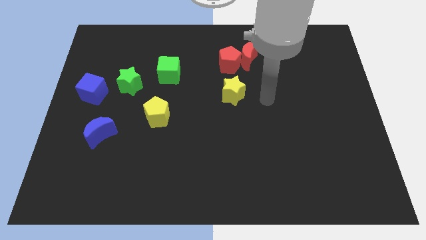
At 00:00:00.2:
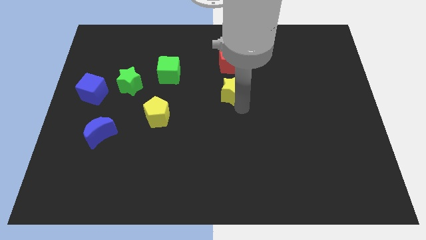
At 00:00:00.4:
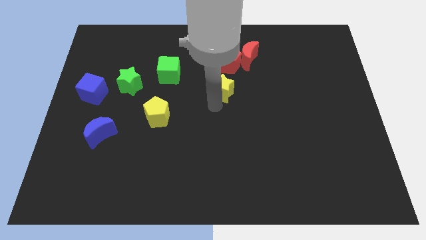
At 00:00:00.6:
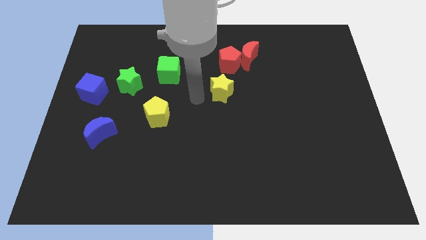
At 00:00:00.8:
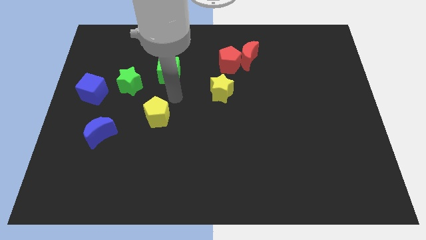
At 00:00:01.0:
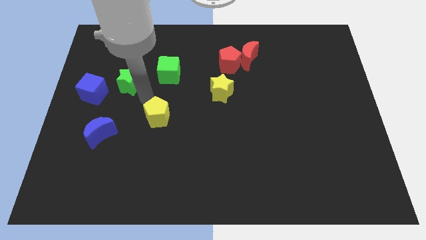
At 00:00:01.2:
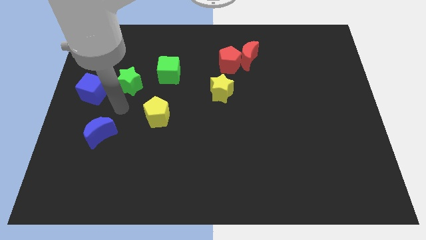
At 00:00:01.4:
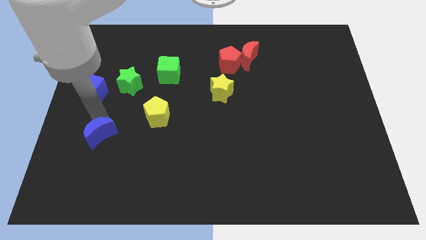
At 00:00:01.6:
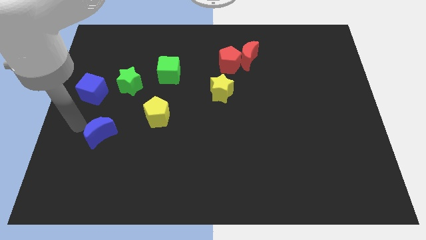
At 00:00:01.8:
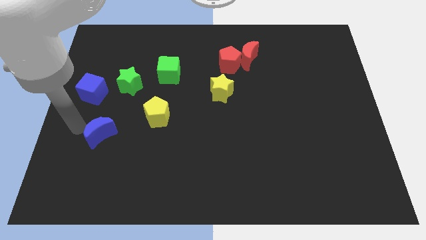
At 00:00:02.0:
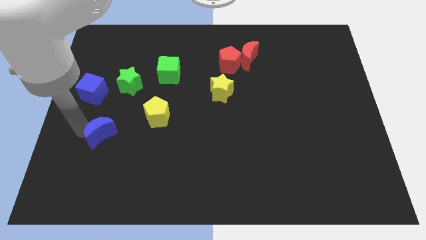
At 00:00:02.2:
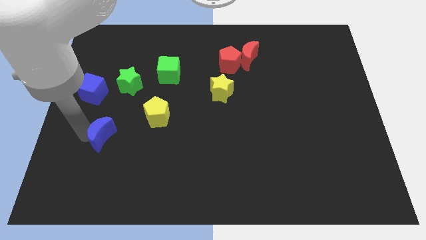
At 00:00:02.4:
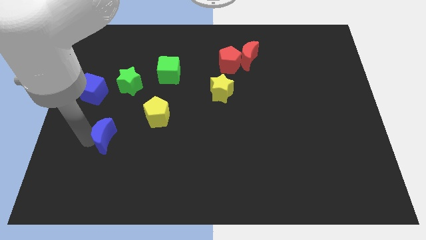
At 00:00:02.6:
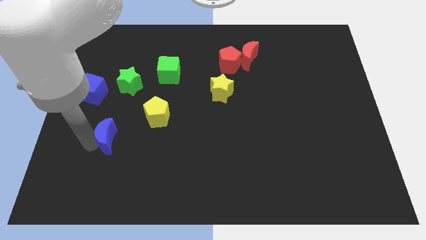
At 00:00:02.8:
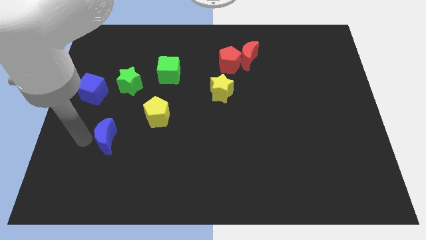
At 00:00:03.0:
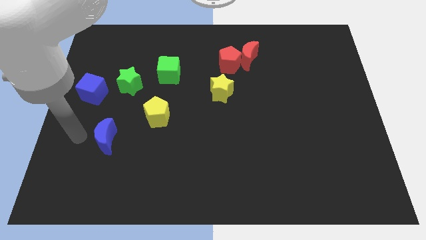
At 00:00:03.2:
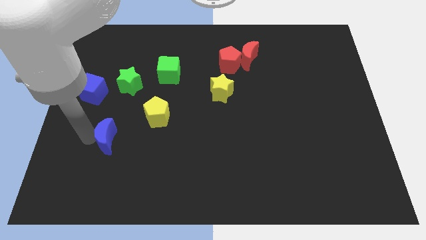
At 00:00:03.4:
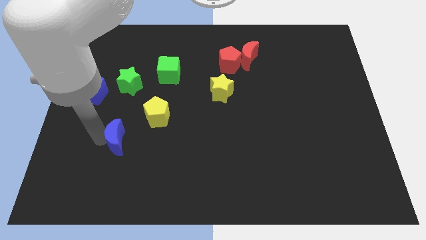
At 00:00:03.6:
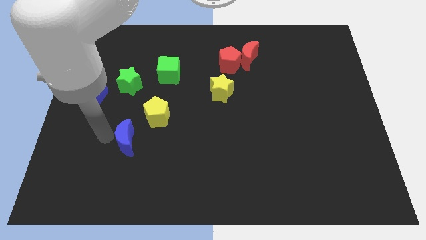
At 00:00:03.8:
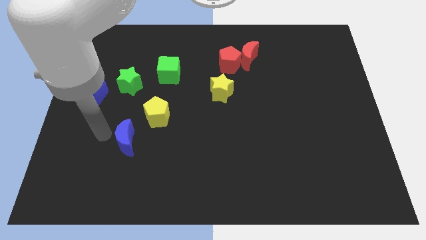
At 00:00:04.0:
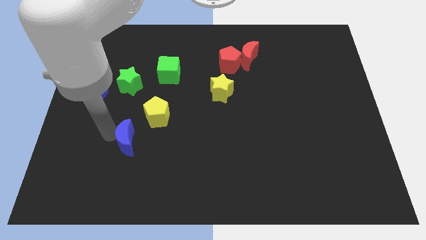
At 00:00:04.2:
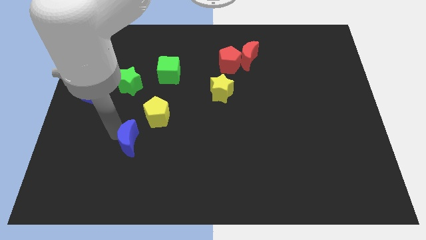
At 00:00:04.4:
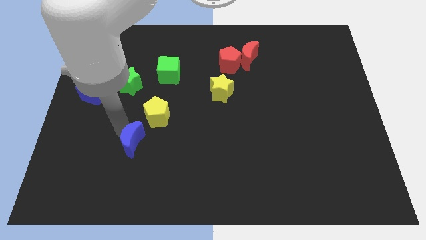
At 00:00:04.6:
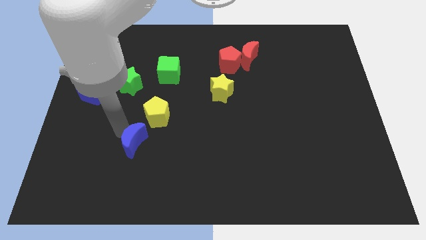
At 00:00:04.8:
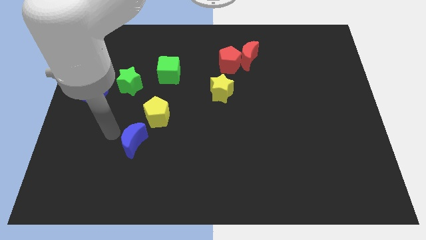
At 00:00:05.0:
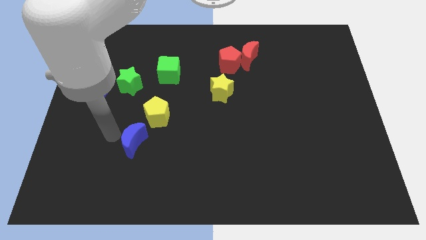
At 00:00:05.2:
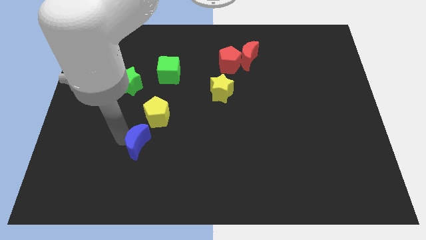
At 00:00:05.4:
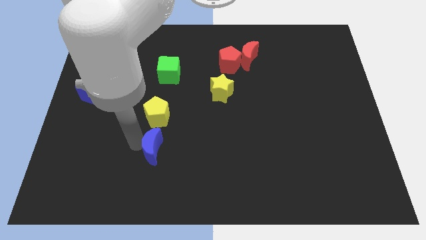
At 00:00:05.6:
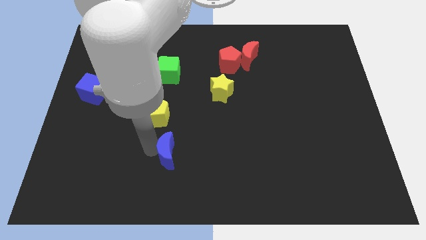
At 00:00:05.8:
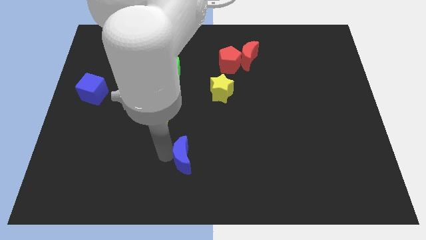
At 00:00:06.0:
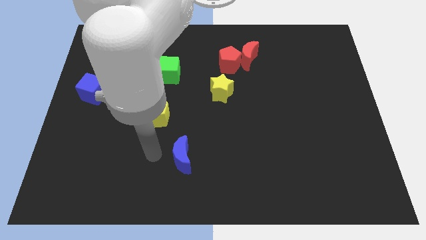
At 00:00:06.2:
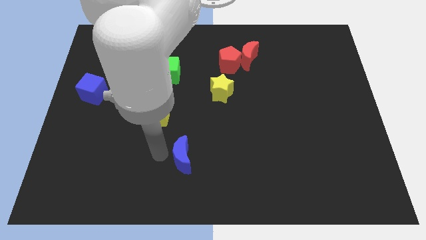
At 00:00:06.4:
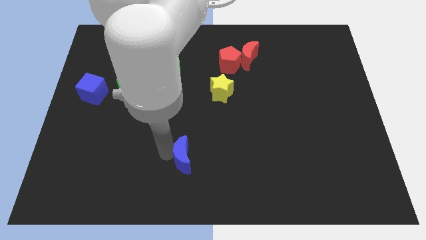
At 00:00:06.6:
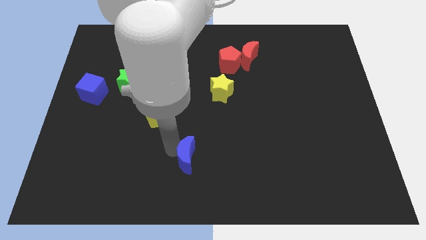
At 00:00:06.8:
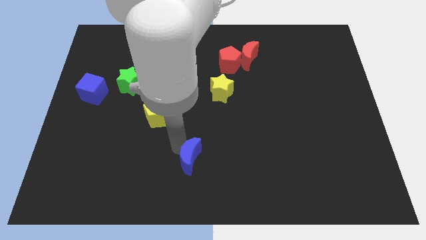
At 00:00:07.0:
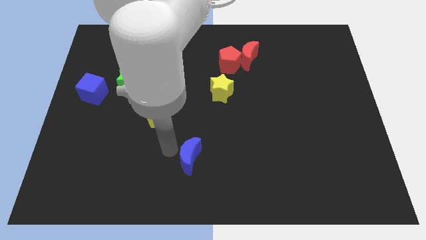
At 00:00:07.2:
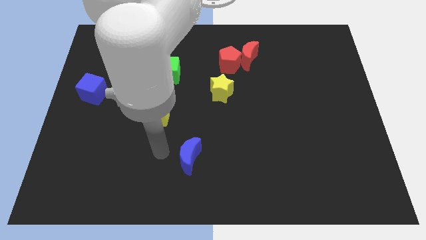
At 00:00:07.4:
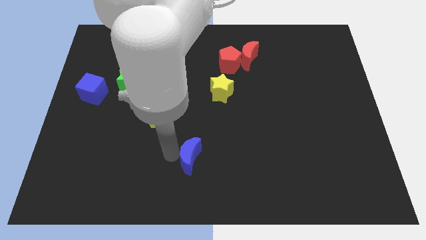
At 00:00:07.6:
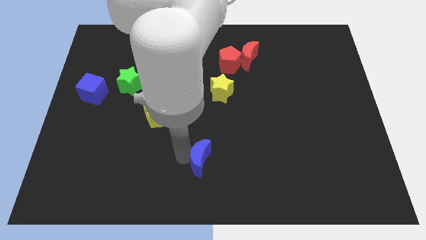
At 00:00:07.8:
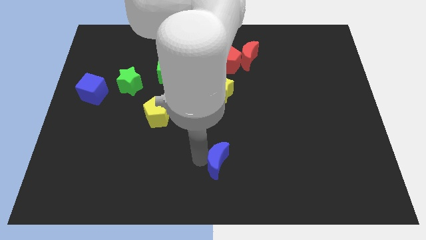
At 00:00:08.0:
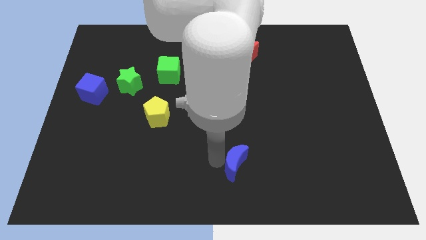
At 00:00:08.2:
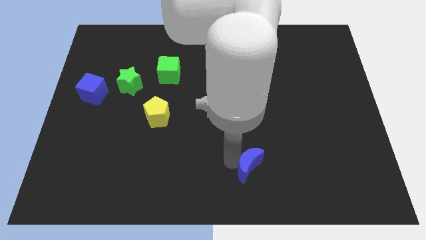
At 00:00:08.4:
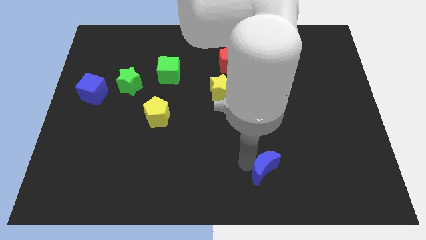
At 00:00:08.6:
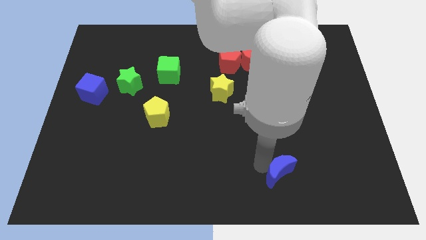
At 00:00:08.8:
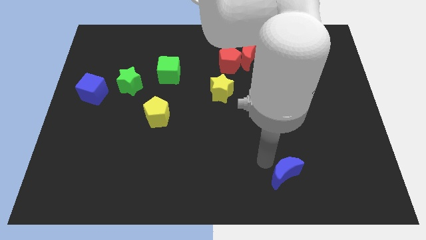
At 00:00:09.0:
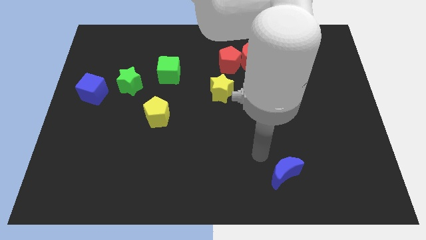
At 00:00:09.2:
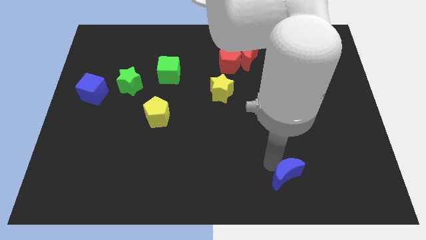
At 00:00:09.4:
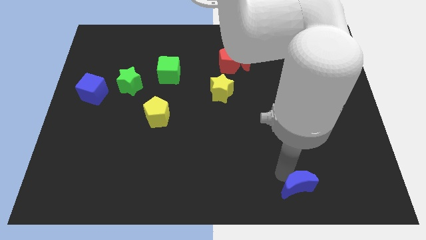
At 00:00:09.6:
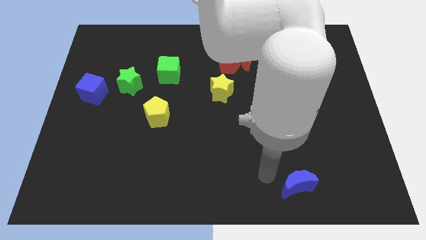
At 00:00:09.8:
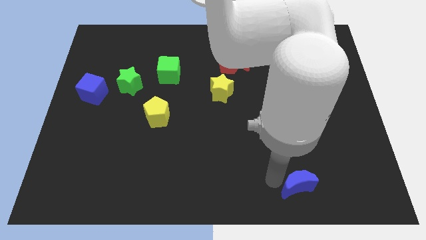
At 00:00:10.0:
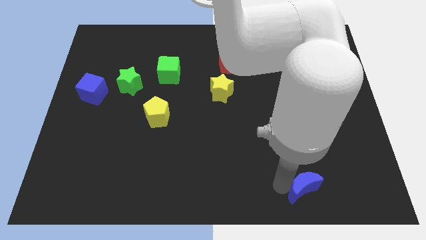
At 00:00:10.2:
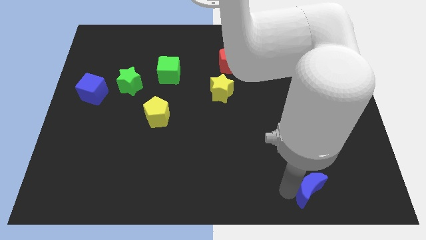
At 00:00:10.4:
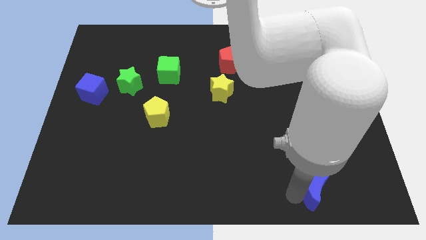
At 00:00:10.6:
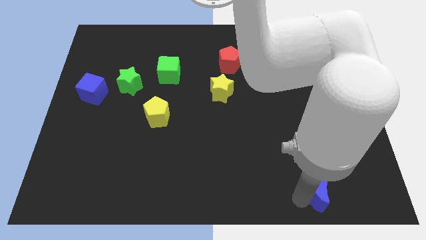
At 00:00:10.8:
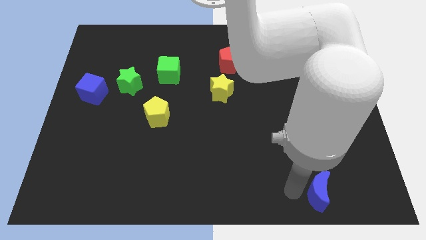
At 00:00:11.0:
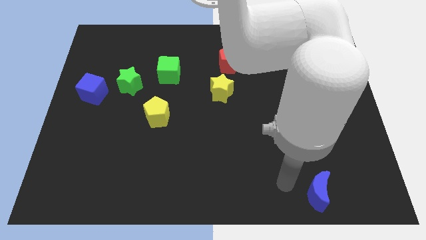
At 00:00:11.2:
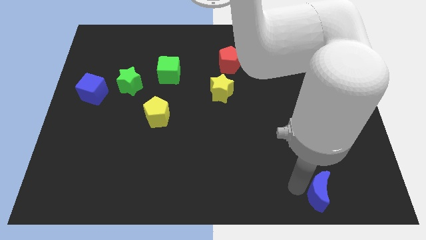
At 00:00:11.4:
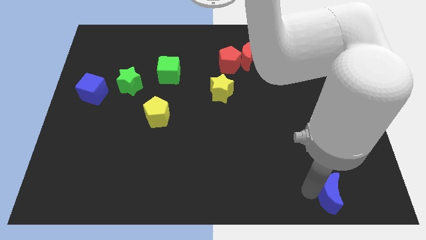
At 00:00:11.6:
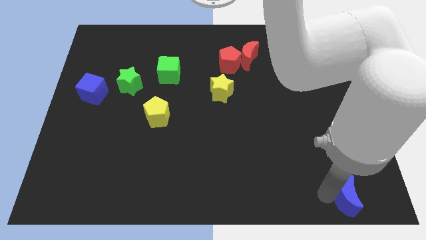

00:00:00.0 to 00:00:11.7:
push the blue moon to the bottom right

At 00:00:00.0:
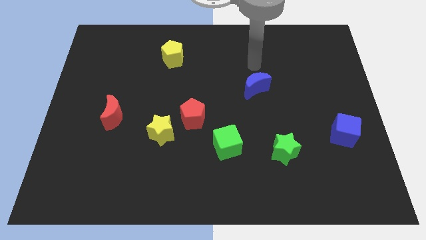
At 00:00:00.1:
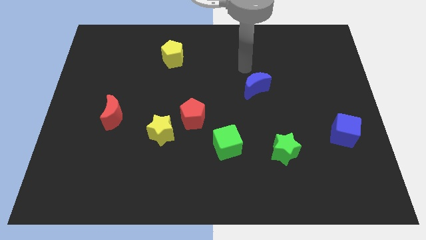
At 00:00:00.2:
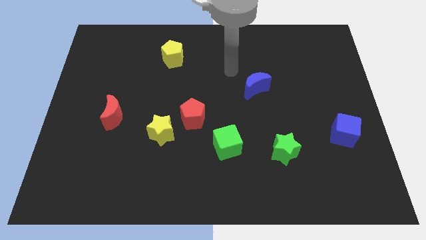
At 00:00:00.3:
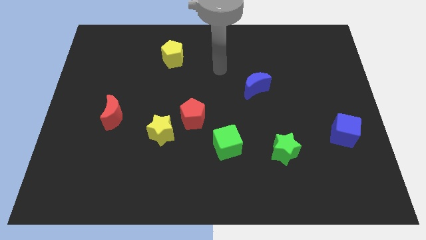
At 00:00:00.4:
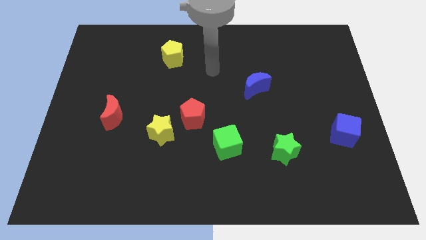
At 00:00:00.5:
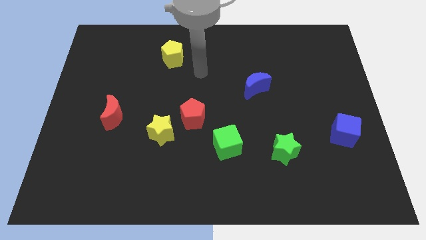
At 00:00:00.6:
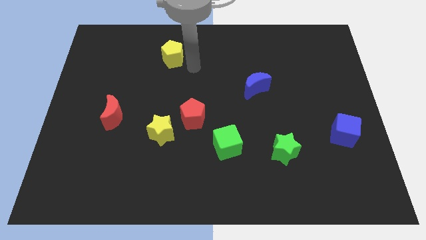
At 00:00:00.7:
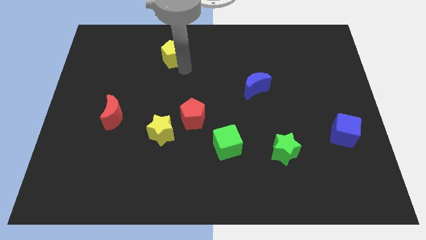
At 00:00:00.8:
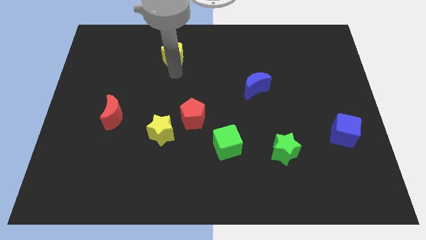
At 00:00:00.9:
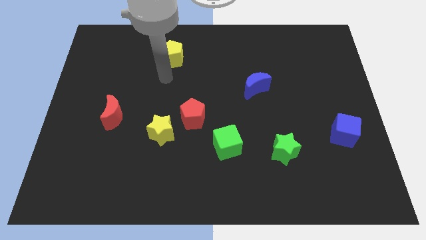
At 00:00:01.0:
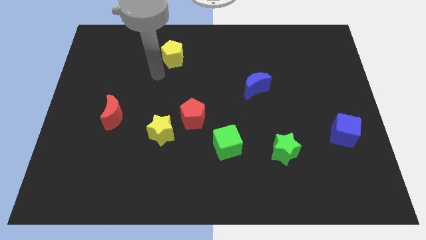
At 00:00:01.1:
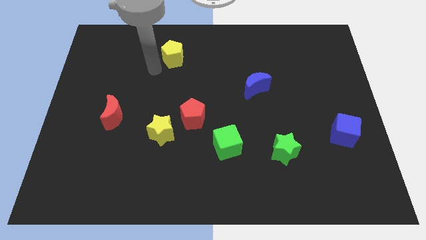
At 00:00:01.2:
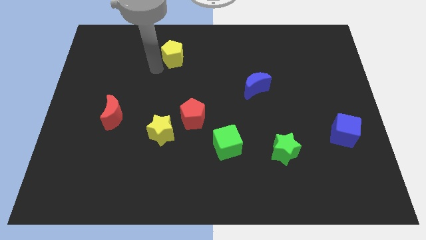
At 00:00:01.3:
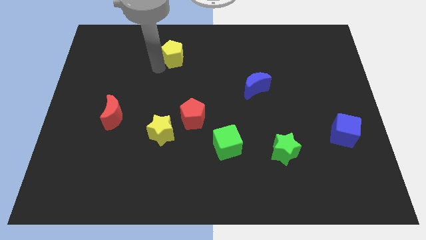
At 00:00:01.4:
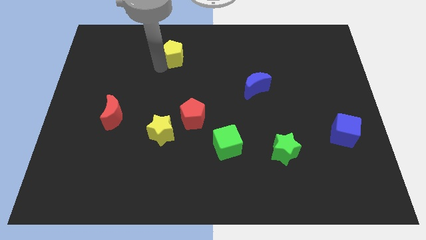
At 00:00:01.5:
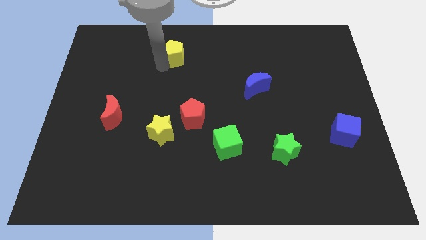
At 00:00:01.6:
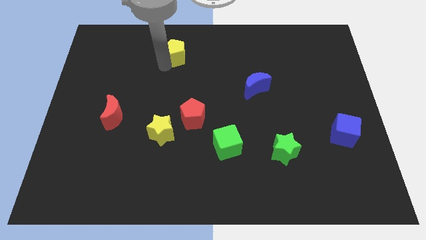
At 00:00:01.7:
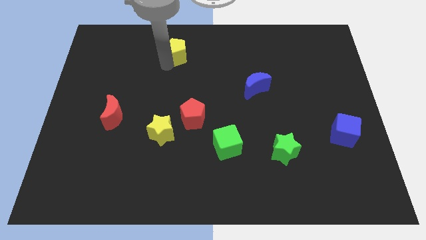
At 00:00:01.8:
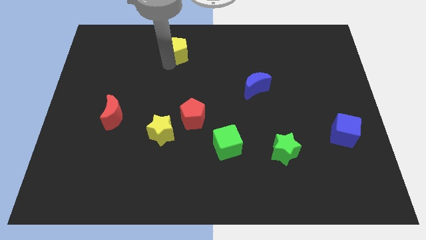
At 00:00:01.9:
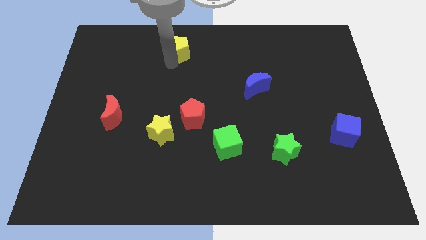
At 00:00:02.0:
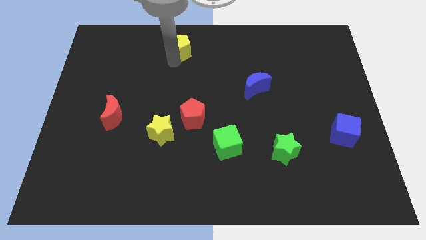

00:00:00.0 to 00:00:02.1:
put the yellow pentagon to the top side
